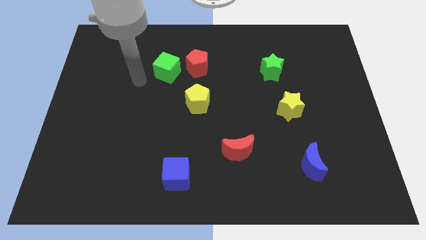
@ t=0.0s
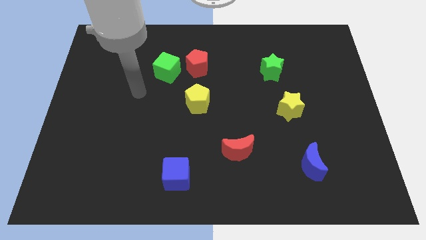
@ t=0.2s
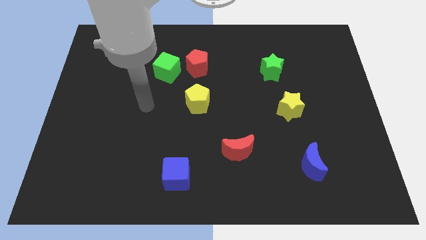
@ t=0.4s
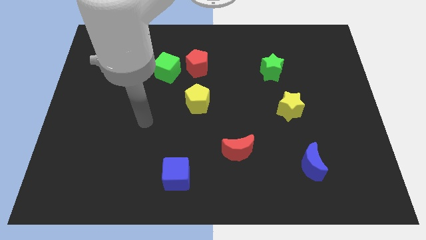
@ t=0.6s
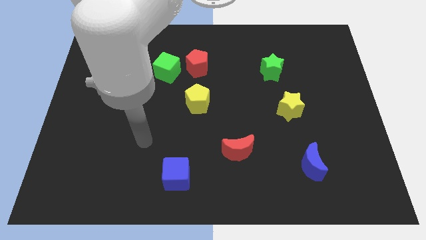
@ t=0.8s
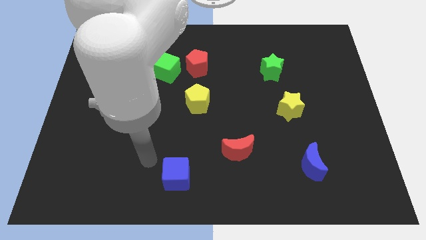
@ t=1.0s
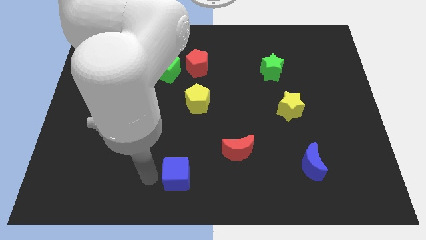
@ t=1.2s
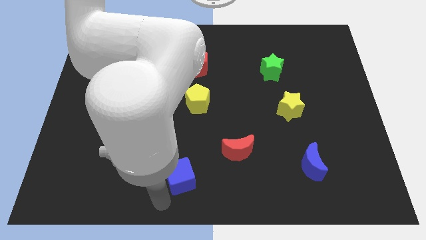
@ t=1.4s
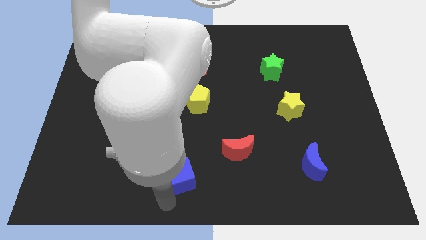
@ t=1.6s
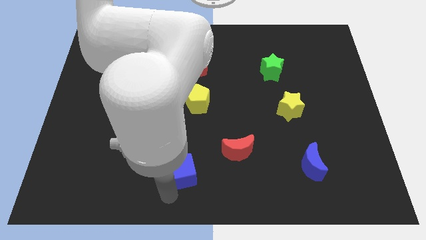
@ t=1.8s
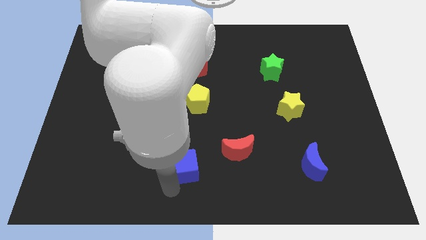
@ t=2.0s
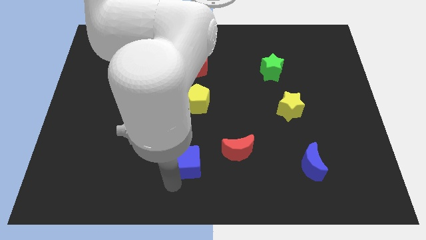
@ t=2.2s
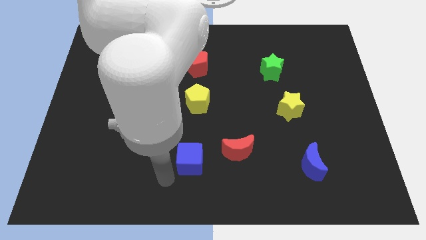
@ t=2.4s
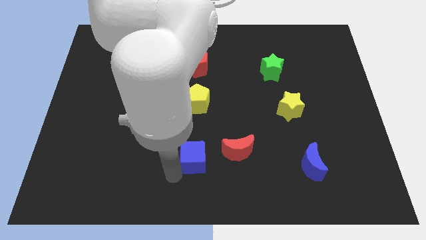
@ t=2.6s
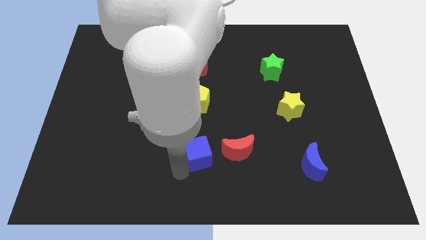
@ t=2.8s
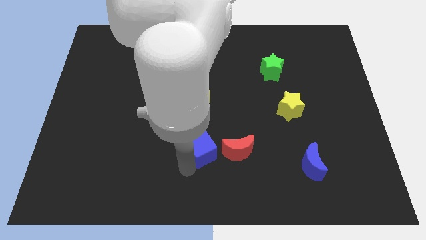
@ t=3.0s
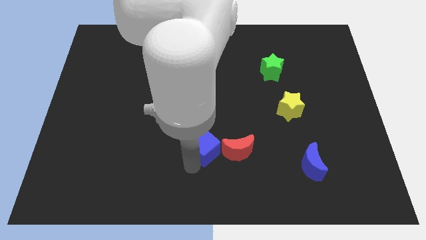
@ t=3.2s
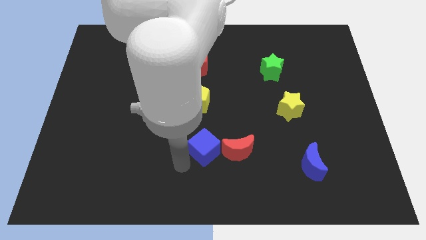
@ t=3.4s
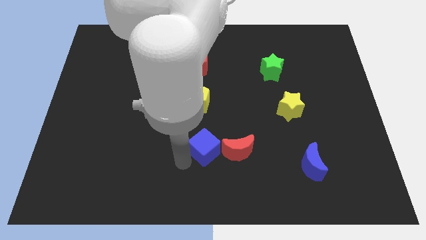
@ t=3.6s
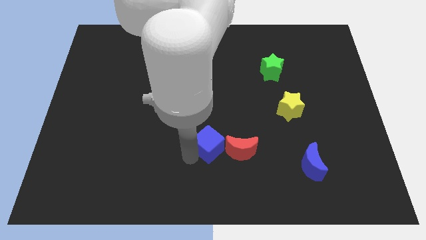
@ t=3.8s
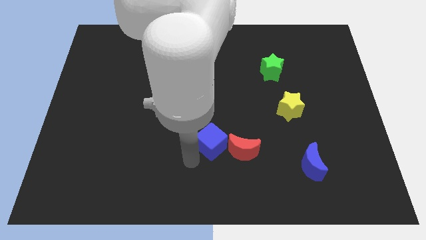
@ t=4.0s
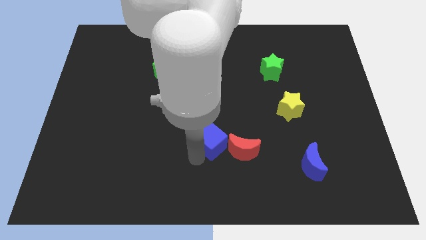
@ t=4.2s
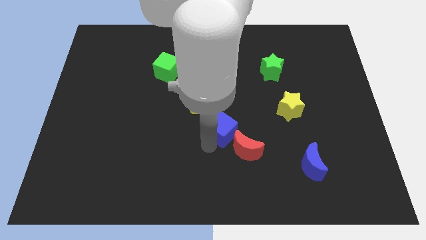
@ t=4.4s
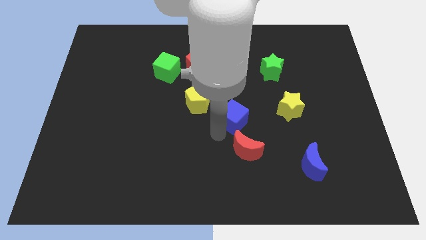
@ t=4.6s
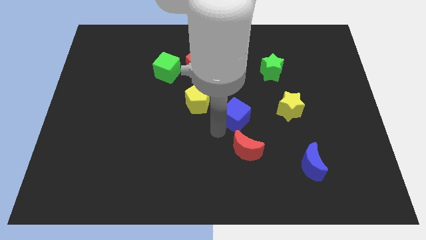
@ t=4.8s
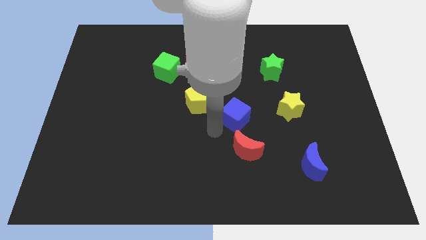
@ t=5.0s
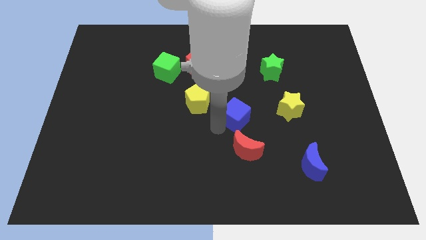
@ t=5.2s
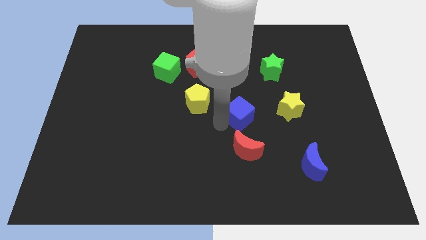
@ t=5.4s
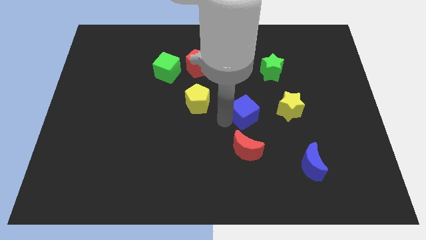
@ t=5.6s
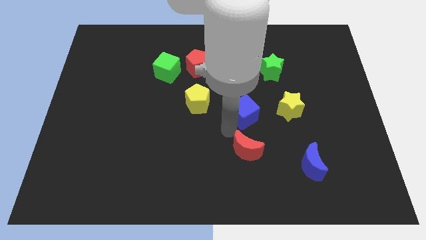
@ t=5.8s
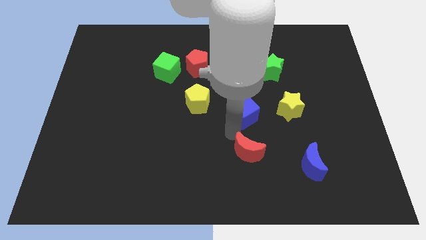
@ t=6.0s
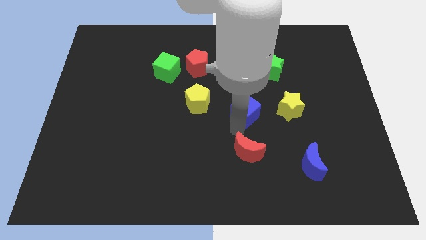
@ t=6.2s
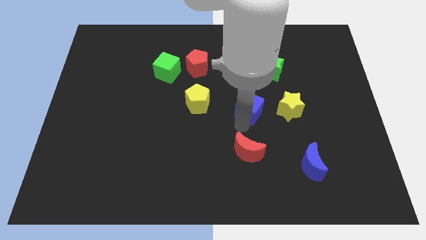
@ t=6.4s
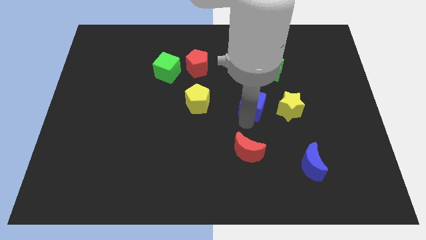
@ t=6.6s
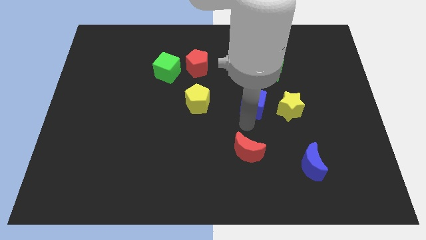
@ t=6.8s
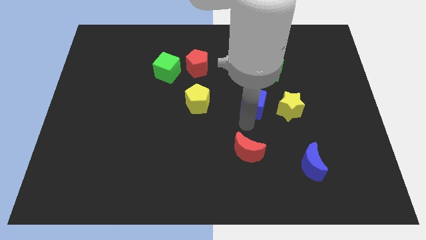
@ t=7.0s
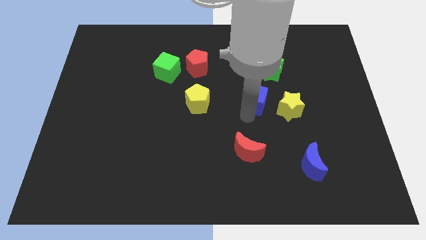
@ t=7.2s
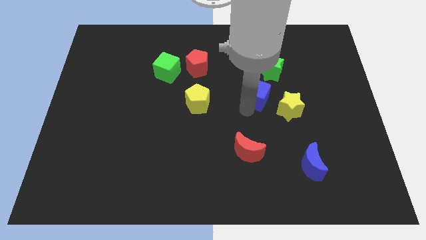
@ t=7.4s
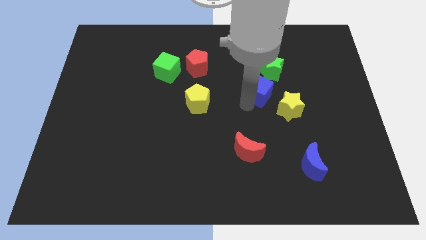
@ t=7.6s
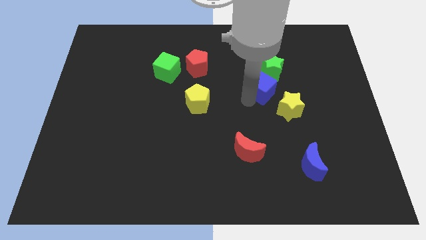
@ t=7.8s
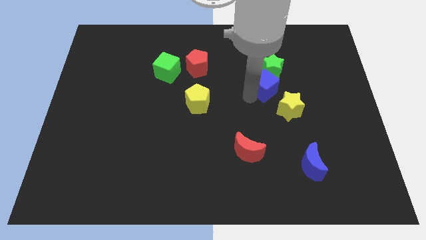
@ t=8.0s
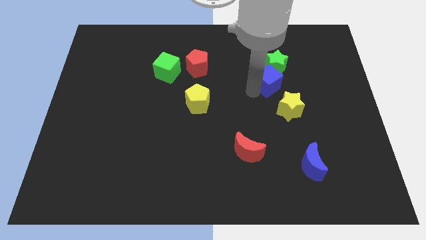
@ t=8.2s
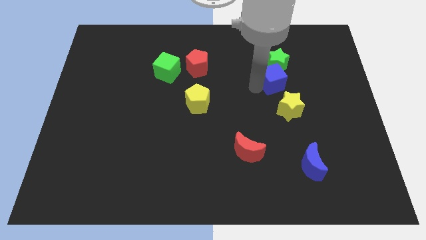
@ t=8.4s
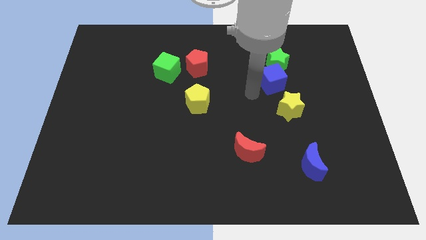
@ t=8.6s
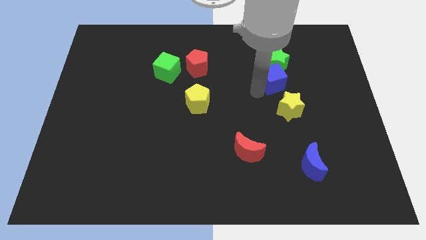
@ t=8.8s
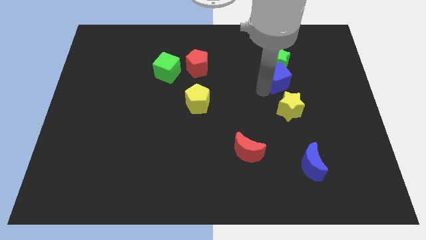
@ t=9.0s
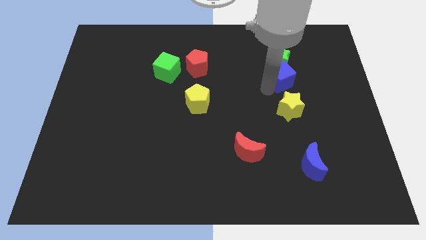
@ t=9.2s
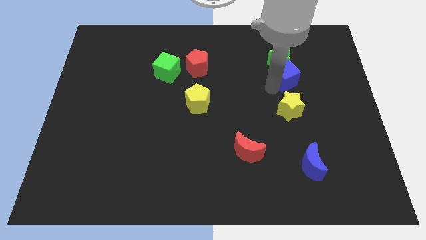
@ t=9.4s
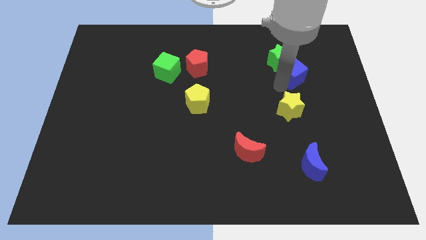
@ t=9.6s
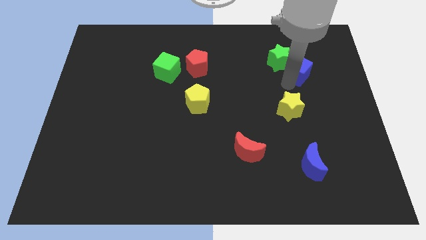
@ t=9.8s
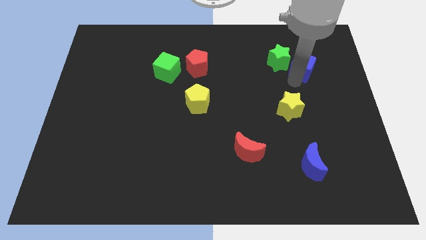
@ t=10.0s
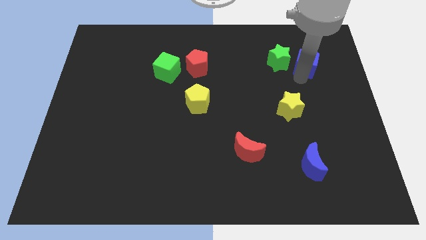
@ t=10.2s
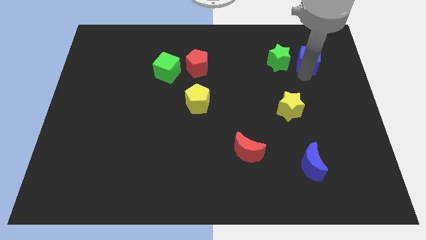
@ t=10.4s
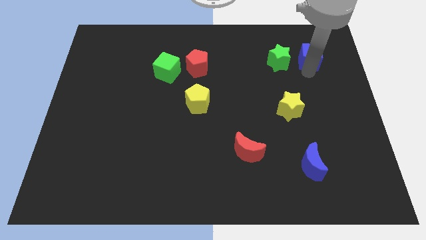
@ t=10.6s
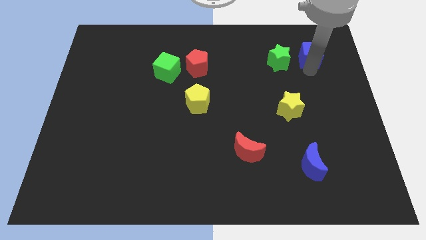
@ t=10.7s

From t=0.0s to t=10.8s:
move the blue cube diagonally up and to the right of the green star

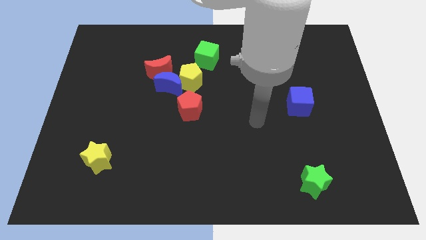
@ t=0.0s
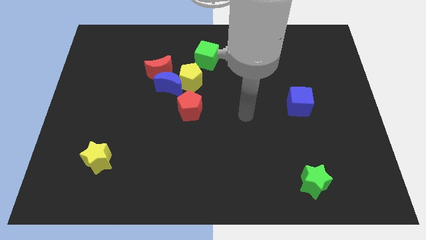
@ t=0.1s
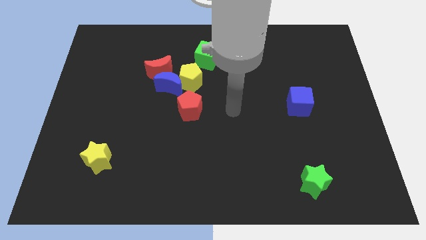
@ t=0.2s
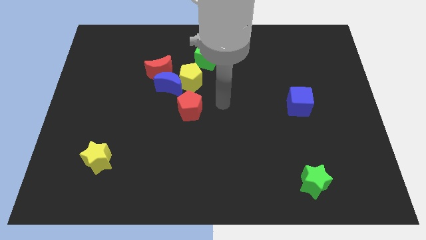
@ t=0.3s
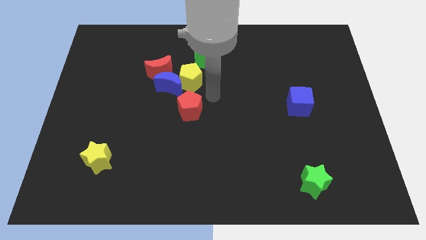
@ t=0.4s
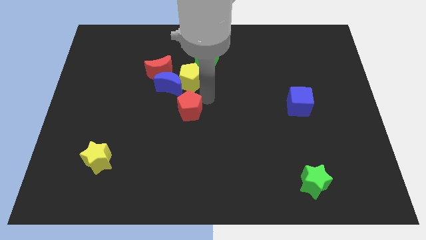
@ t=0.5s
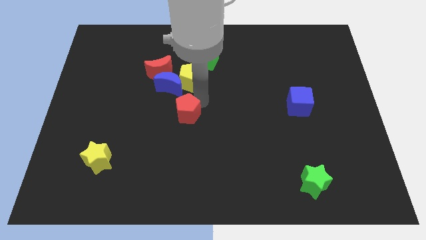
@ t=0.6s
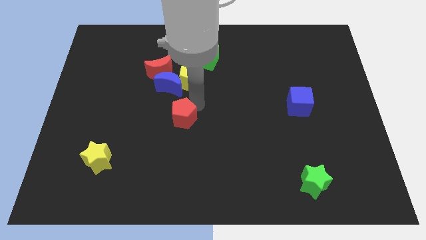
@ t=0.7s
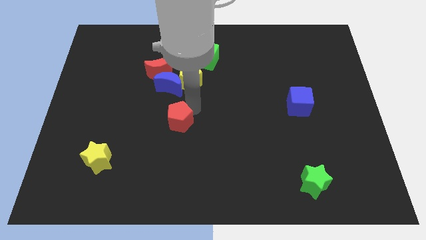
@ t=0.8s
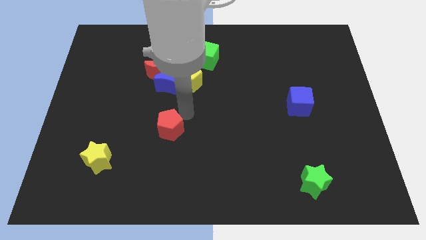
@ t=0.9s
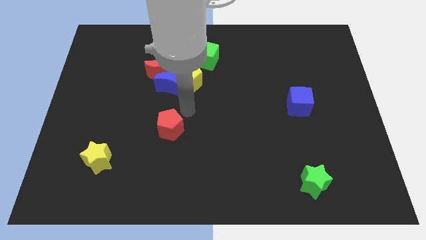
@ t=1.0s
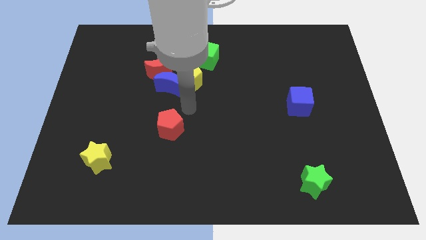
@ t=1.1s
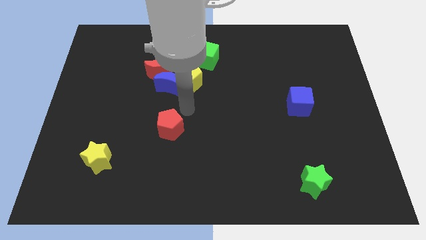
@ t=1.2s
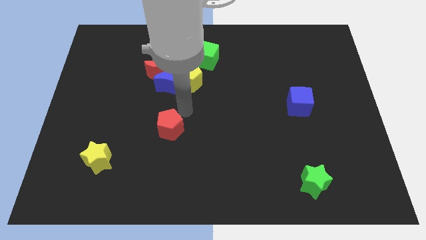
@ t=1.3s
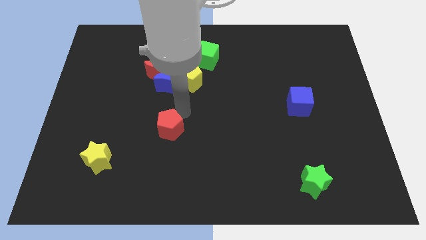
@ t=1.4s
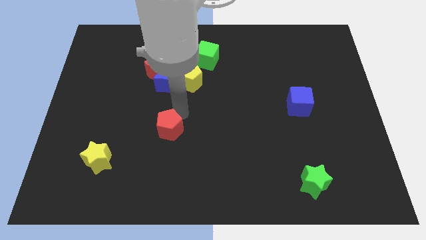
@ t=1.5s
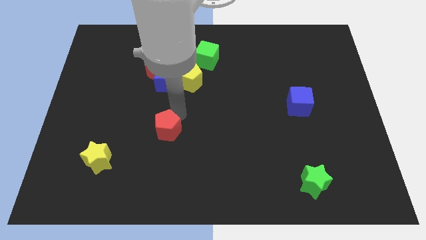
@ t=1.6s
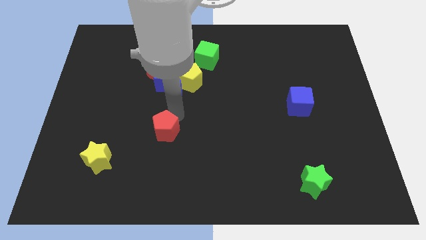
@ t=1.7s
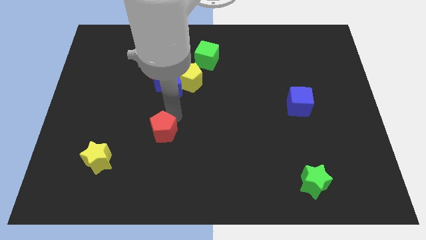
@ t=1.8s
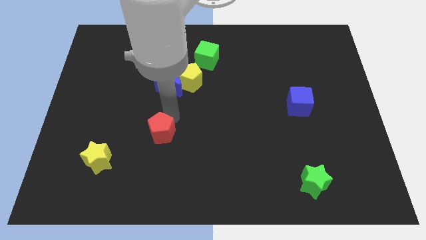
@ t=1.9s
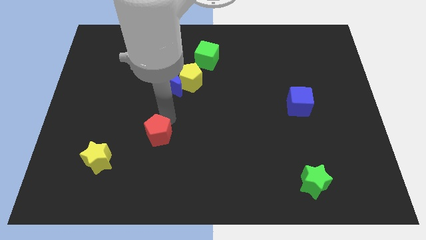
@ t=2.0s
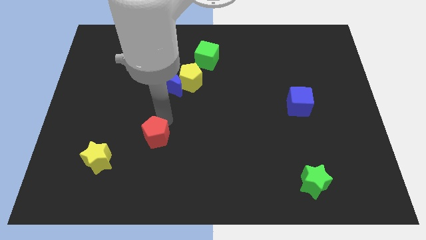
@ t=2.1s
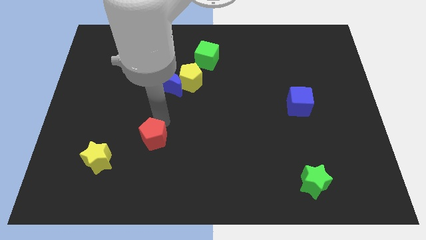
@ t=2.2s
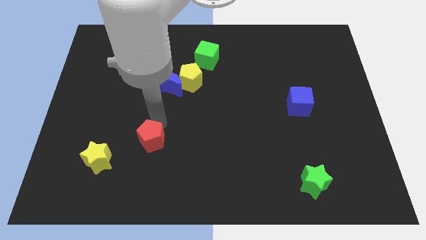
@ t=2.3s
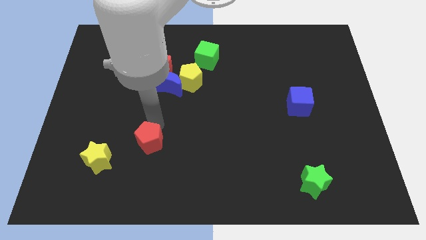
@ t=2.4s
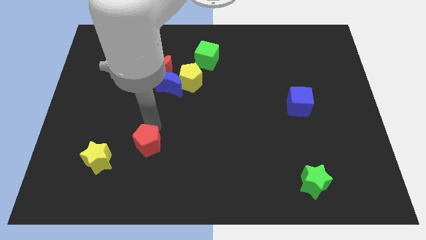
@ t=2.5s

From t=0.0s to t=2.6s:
push the red pentagon to the right side of the yellow star
